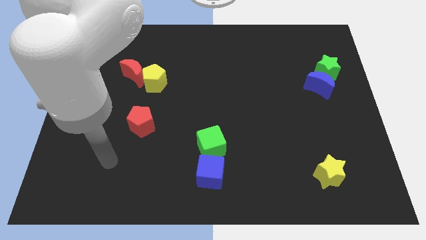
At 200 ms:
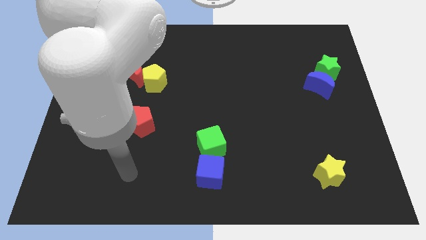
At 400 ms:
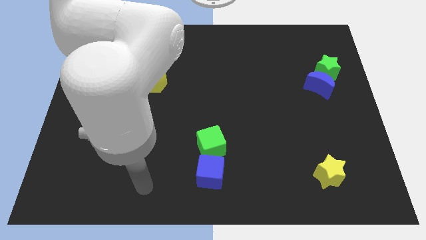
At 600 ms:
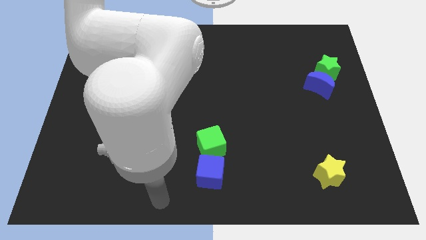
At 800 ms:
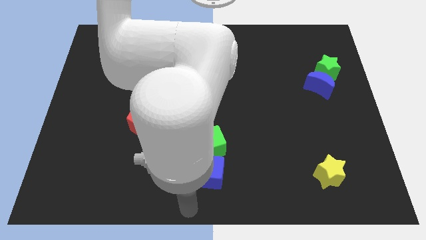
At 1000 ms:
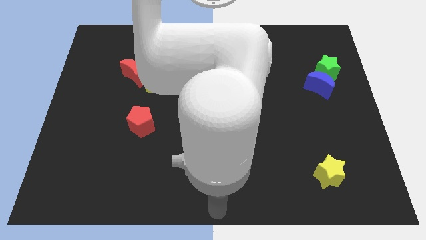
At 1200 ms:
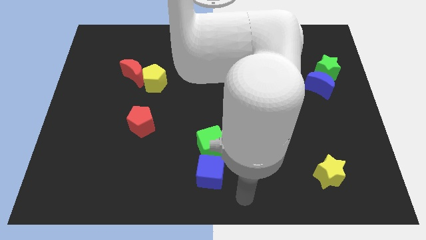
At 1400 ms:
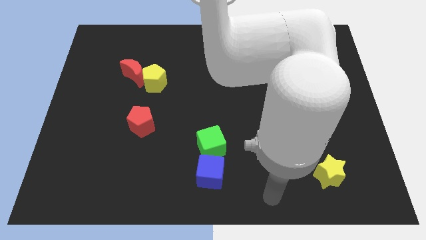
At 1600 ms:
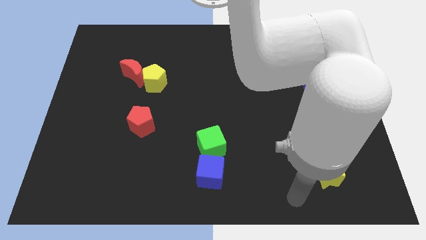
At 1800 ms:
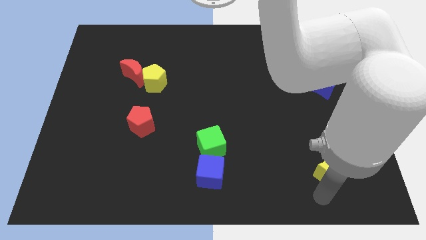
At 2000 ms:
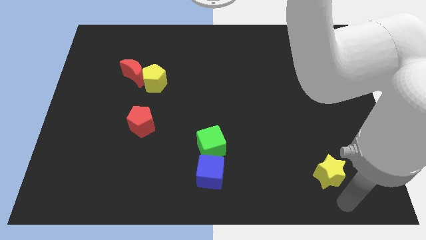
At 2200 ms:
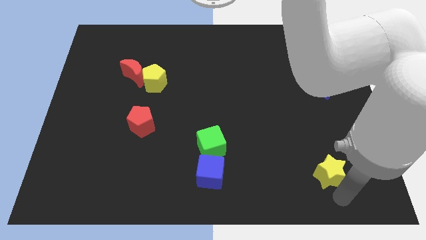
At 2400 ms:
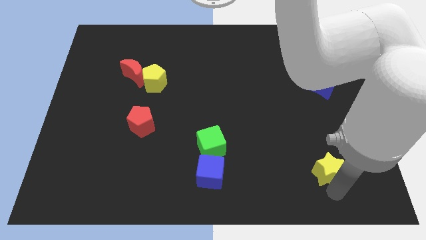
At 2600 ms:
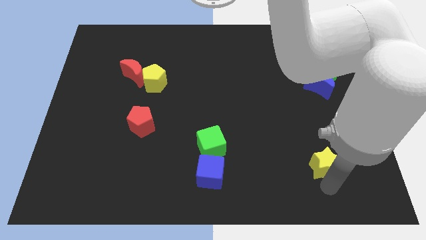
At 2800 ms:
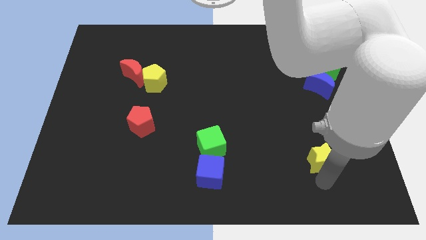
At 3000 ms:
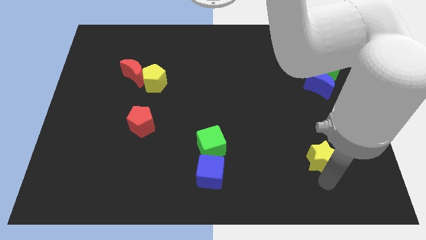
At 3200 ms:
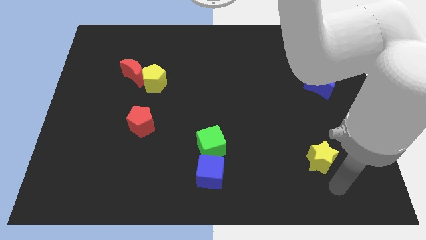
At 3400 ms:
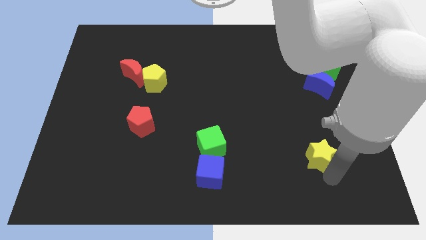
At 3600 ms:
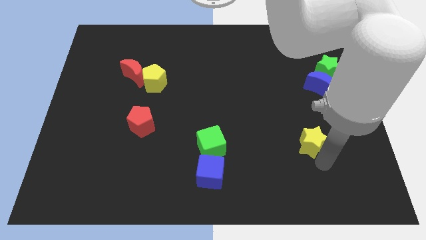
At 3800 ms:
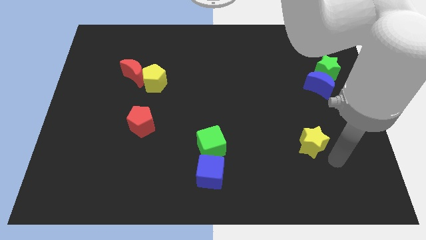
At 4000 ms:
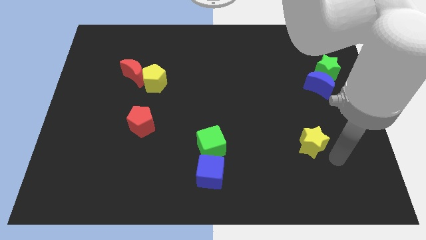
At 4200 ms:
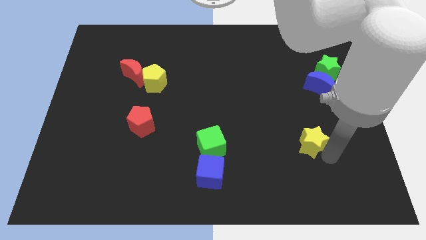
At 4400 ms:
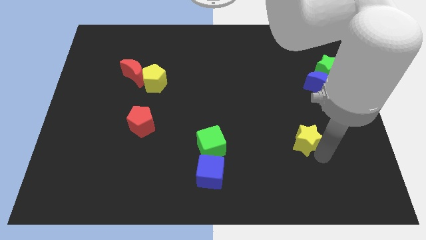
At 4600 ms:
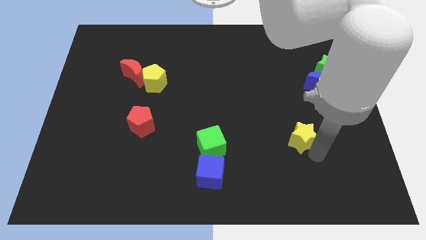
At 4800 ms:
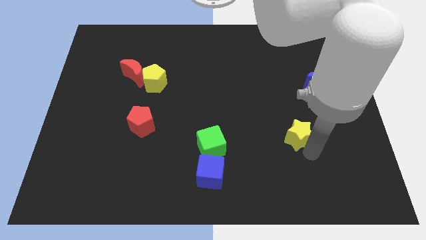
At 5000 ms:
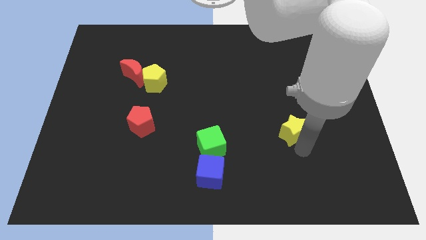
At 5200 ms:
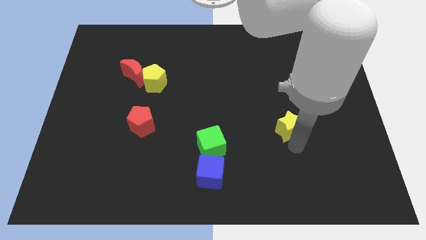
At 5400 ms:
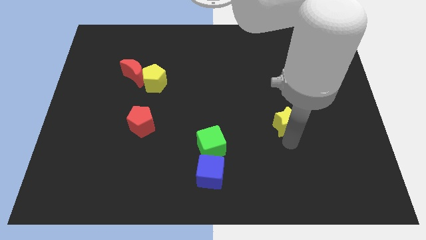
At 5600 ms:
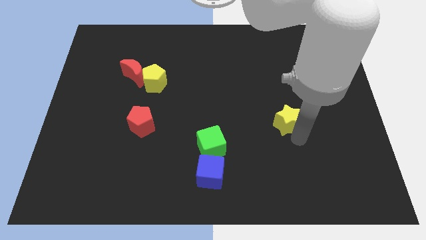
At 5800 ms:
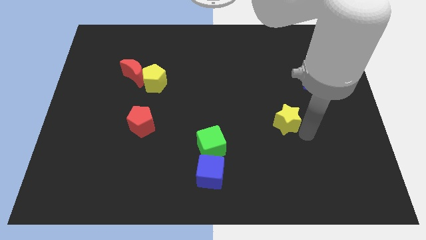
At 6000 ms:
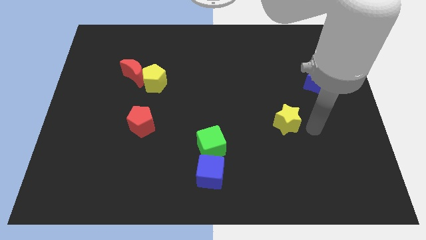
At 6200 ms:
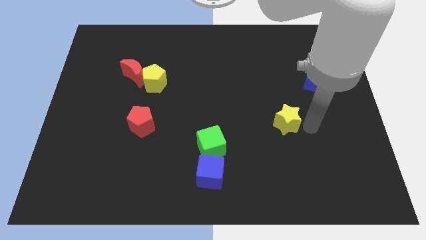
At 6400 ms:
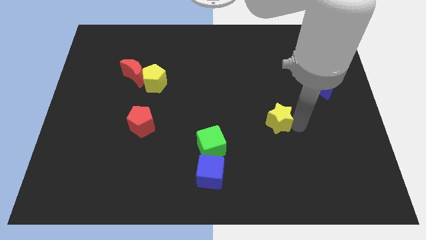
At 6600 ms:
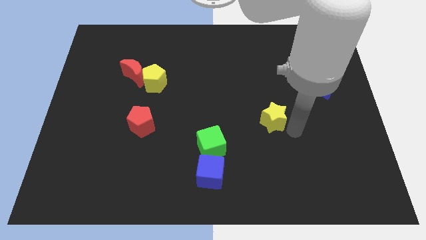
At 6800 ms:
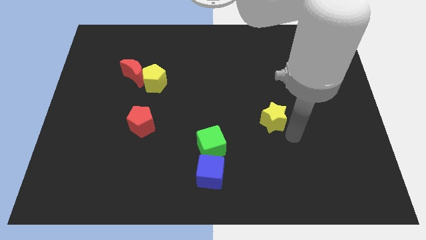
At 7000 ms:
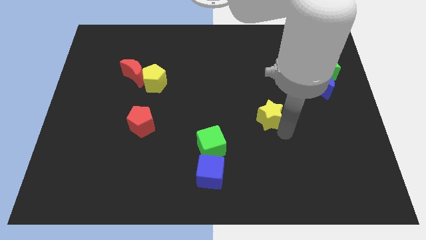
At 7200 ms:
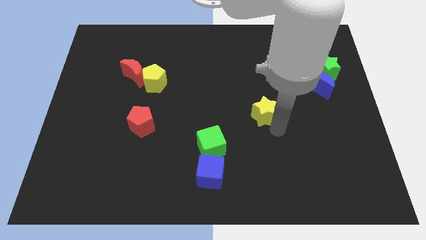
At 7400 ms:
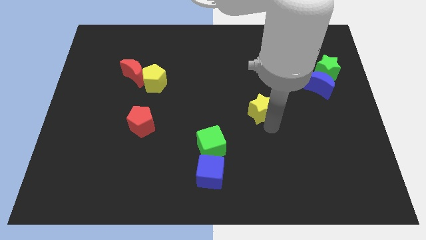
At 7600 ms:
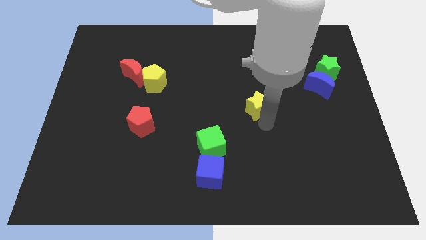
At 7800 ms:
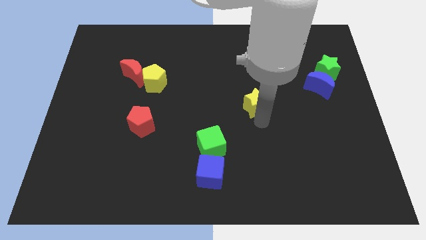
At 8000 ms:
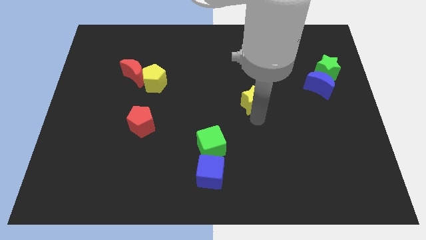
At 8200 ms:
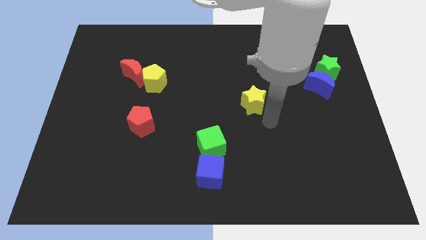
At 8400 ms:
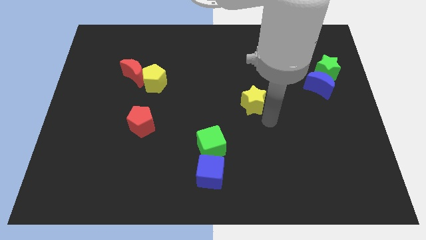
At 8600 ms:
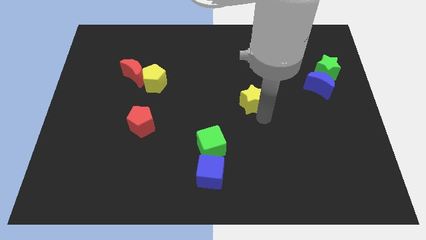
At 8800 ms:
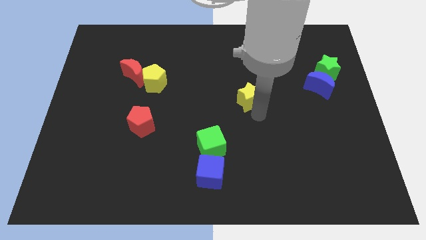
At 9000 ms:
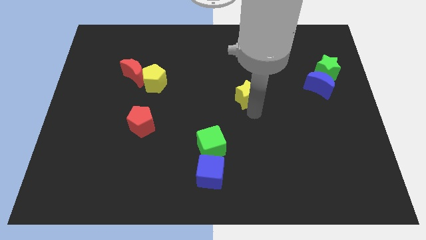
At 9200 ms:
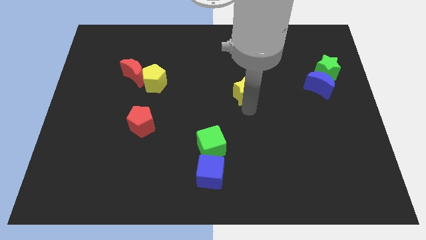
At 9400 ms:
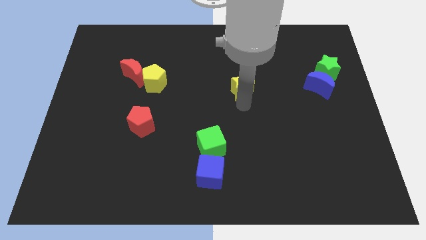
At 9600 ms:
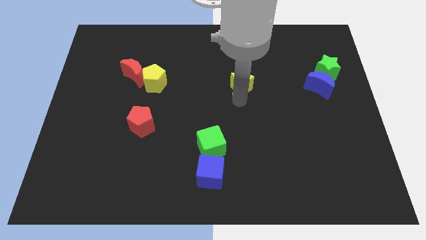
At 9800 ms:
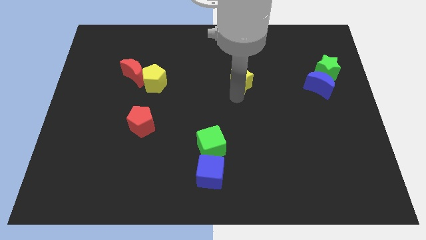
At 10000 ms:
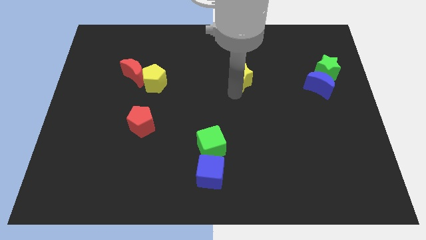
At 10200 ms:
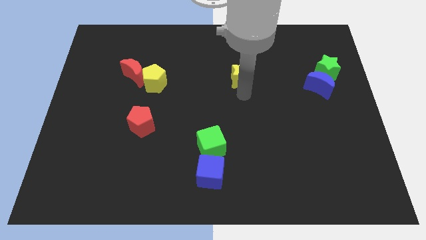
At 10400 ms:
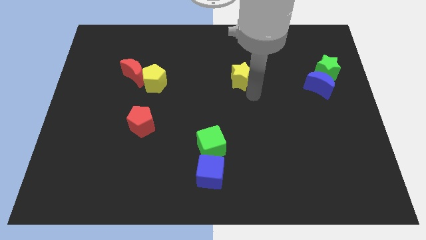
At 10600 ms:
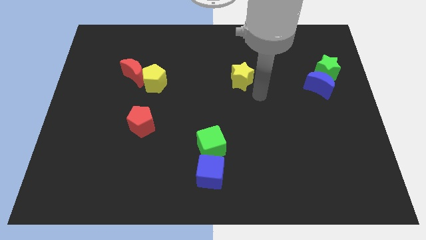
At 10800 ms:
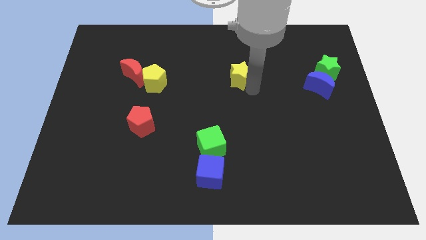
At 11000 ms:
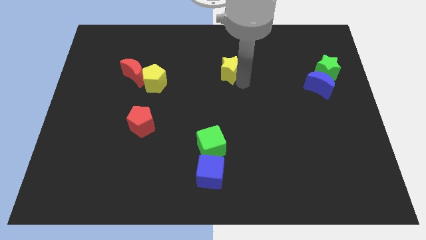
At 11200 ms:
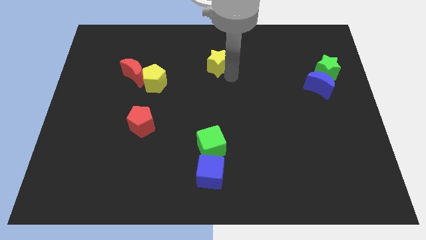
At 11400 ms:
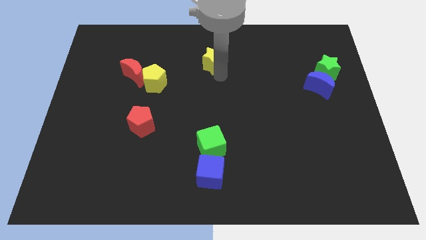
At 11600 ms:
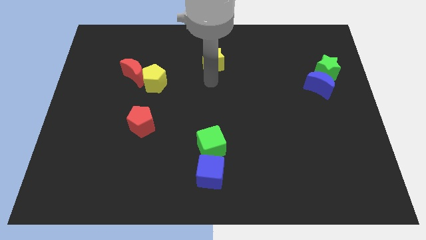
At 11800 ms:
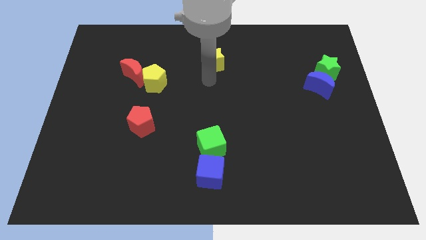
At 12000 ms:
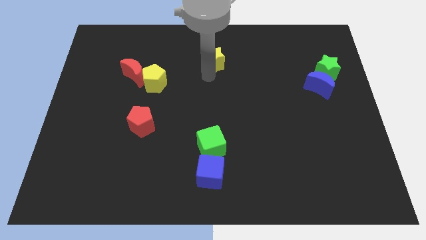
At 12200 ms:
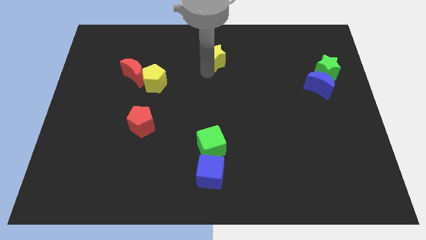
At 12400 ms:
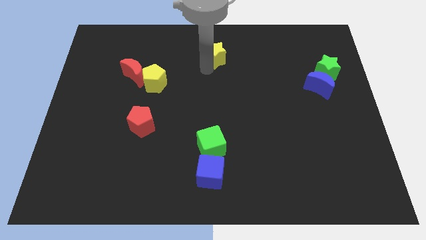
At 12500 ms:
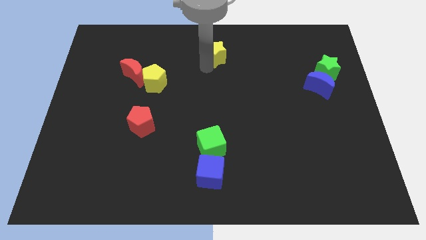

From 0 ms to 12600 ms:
push the yellow star to the top
